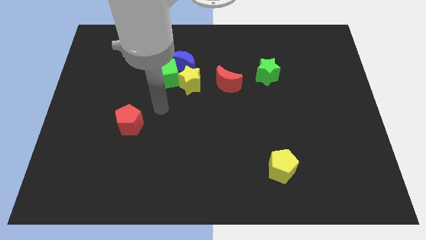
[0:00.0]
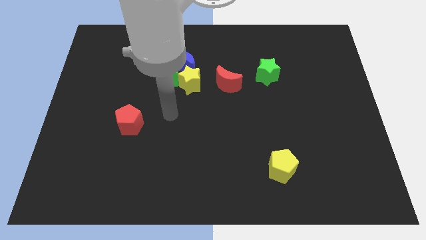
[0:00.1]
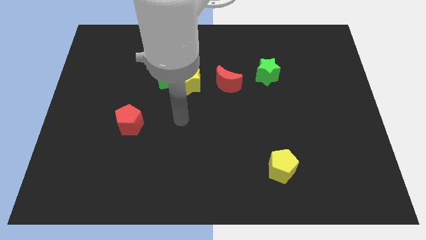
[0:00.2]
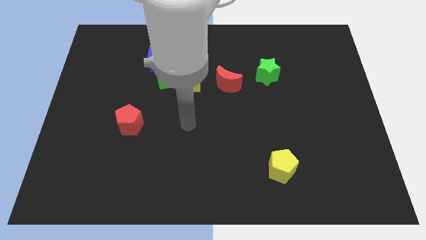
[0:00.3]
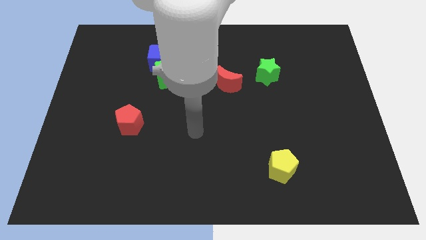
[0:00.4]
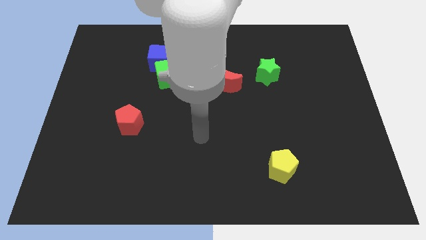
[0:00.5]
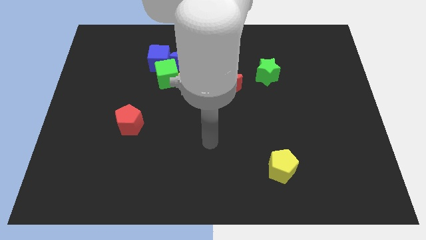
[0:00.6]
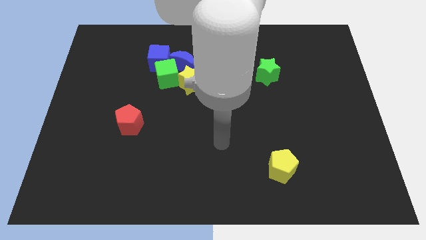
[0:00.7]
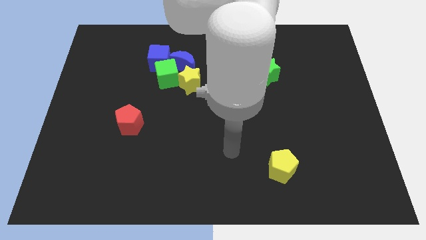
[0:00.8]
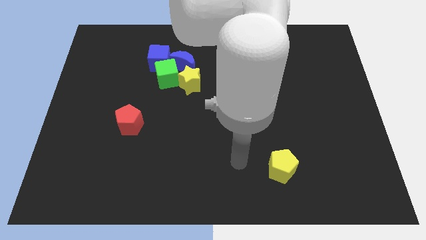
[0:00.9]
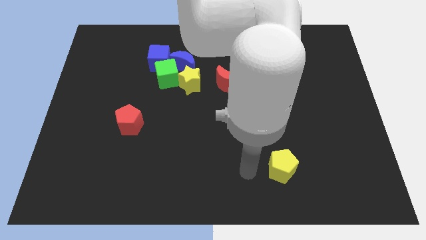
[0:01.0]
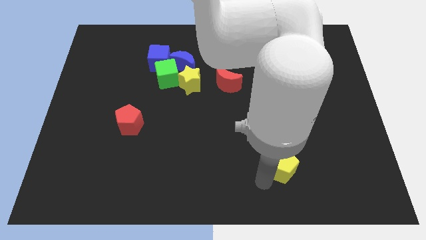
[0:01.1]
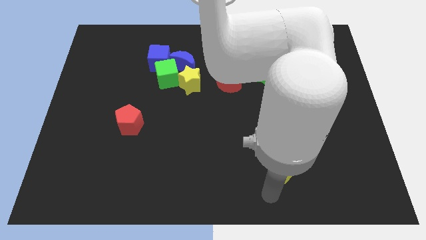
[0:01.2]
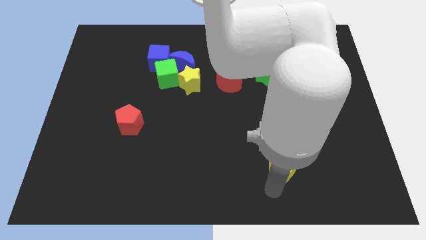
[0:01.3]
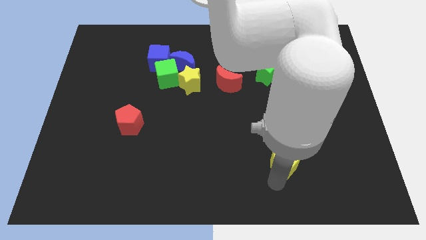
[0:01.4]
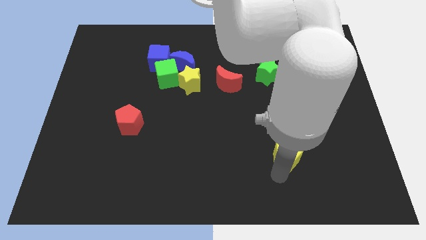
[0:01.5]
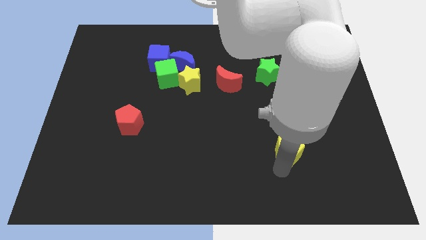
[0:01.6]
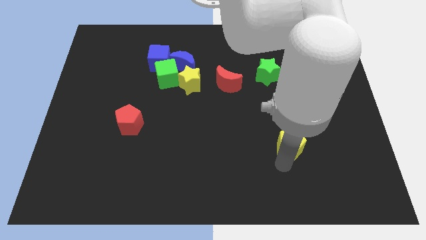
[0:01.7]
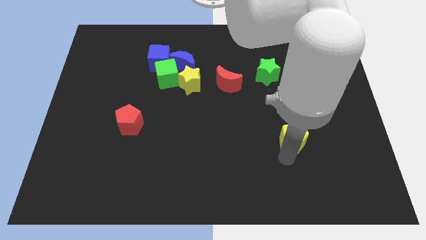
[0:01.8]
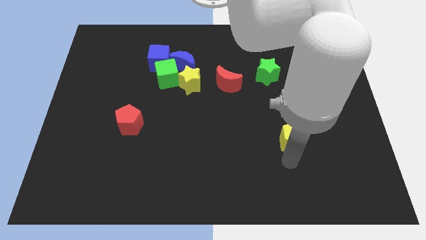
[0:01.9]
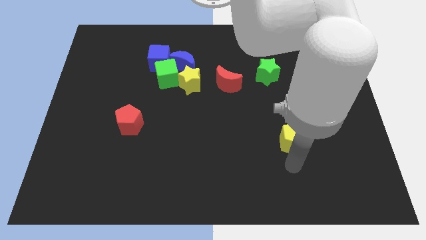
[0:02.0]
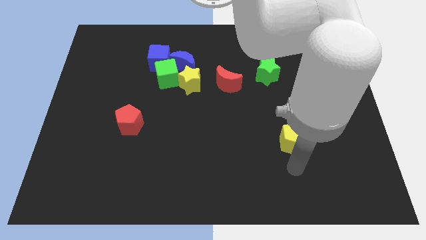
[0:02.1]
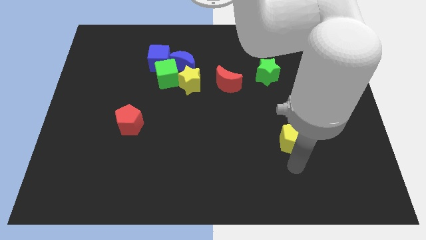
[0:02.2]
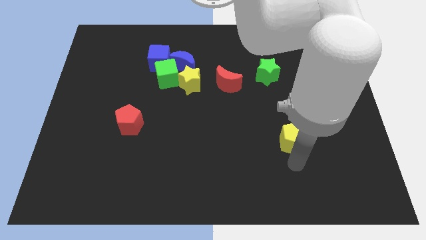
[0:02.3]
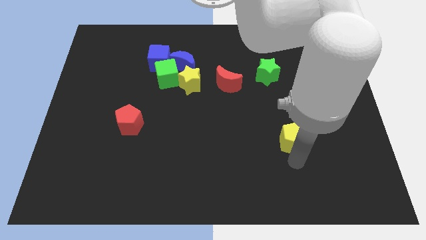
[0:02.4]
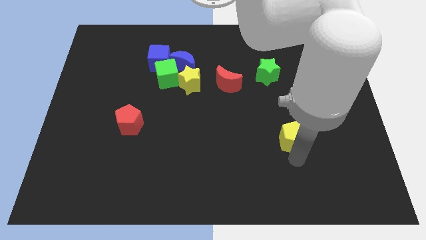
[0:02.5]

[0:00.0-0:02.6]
move the yellow pentagon upwards slightly

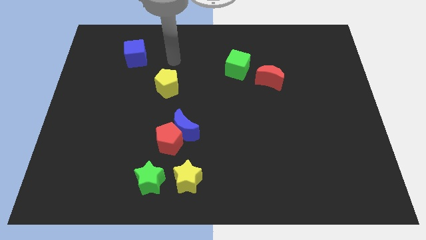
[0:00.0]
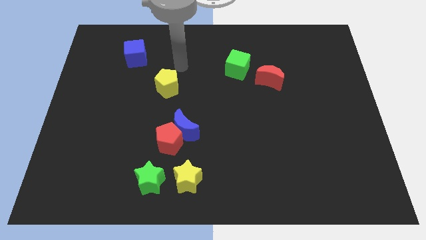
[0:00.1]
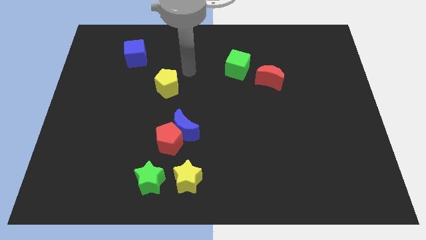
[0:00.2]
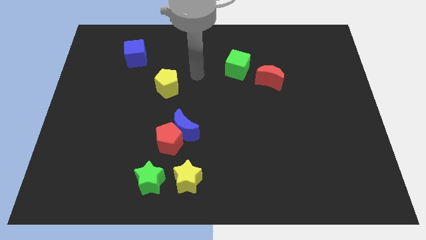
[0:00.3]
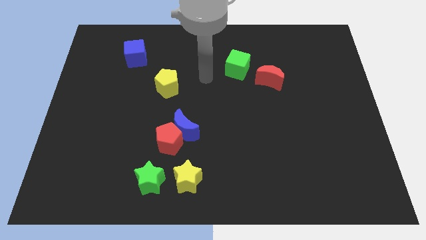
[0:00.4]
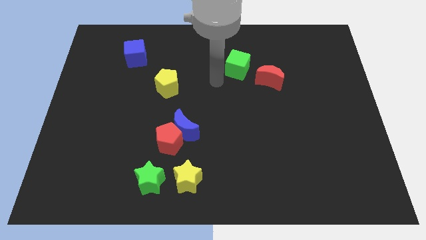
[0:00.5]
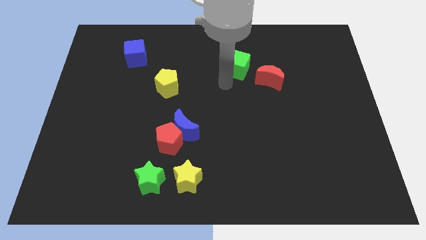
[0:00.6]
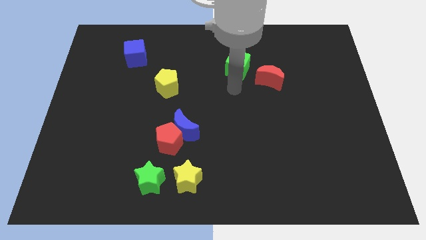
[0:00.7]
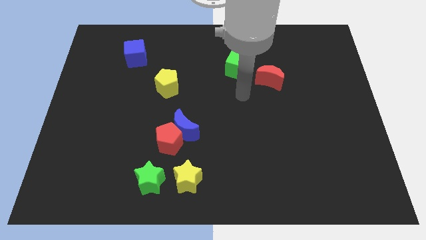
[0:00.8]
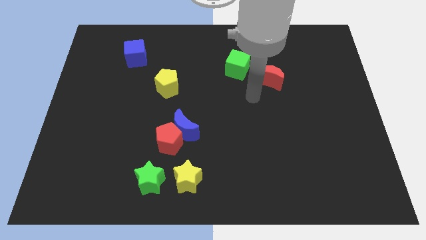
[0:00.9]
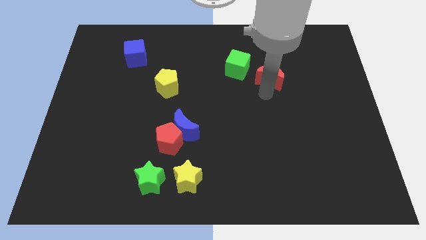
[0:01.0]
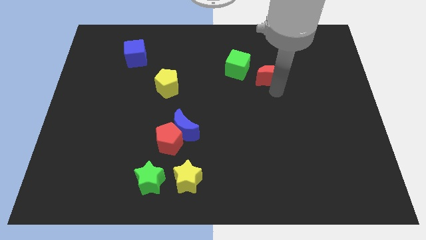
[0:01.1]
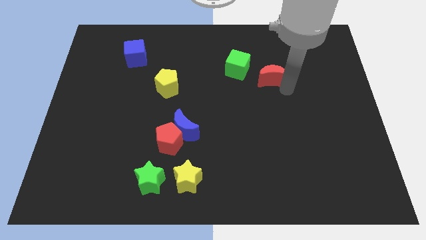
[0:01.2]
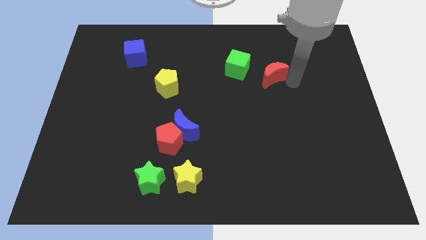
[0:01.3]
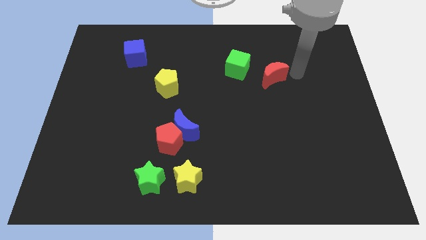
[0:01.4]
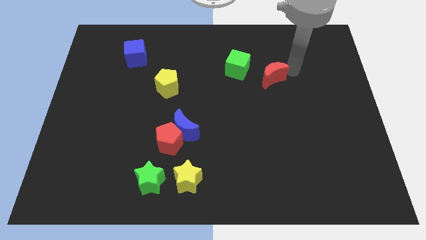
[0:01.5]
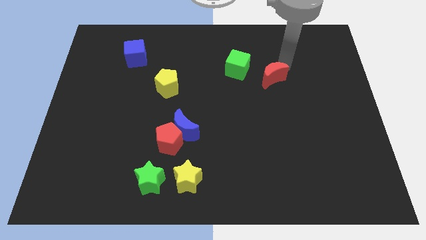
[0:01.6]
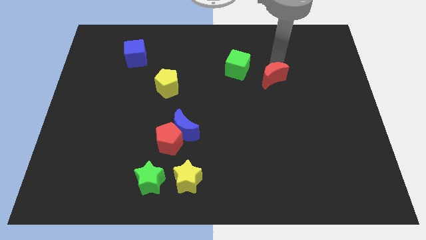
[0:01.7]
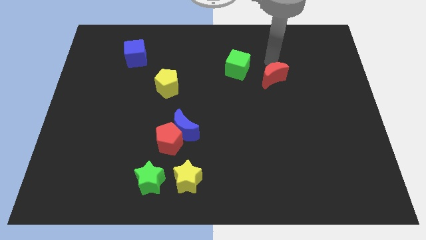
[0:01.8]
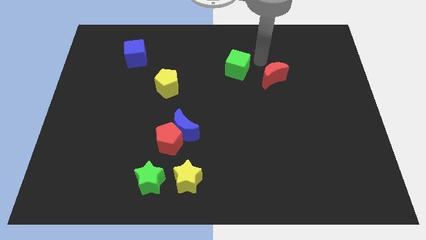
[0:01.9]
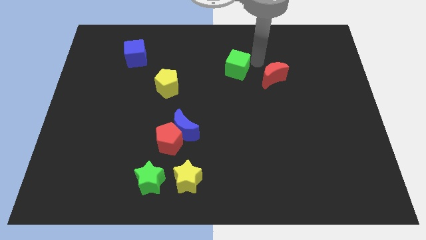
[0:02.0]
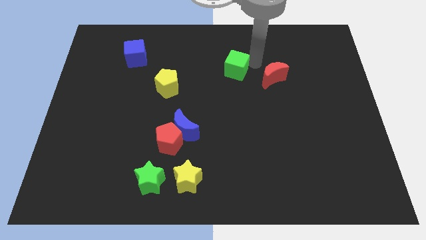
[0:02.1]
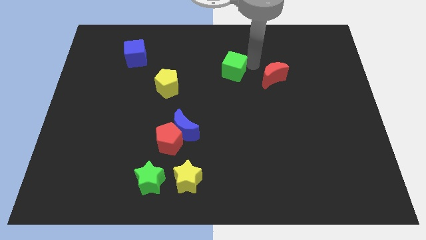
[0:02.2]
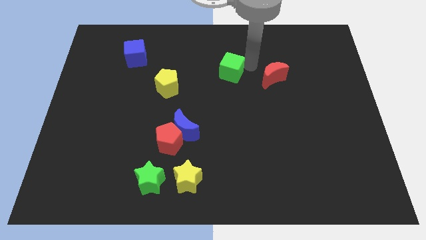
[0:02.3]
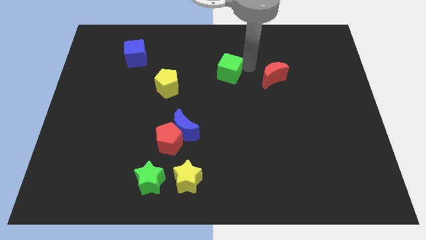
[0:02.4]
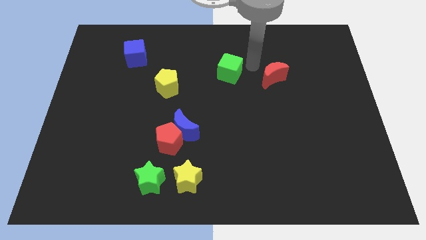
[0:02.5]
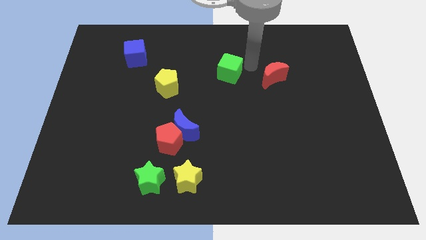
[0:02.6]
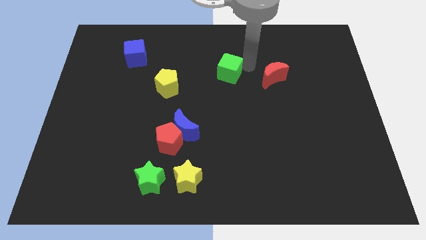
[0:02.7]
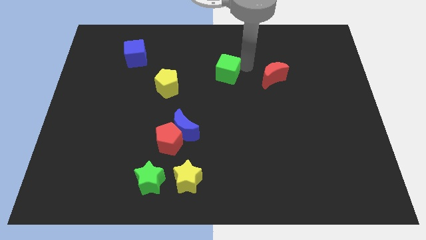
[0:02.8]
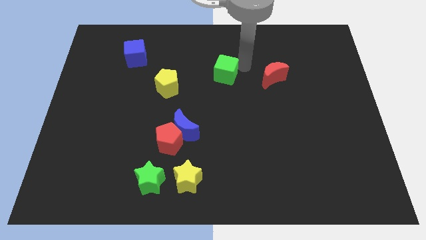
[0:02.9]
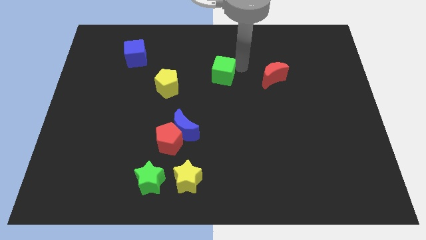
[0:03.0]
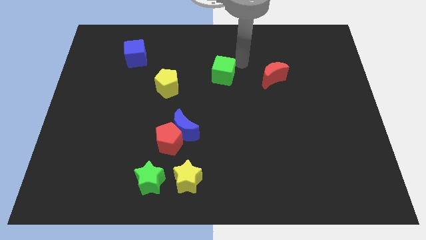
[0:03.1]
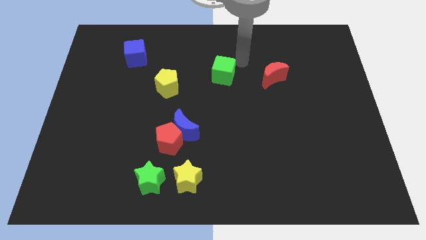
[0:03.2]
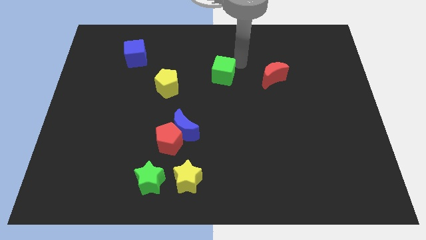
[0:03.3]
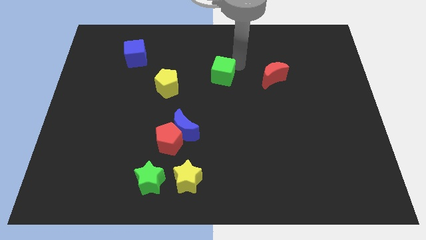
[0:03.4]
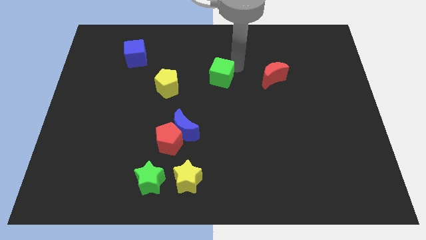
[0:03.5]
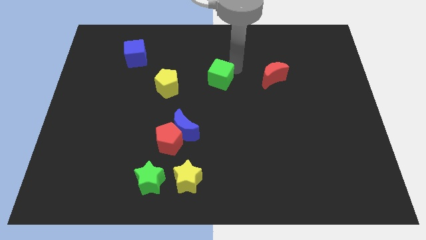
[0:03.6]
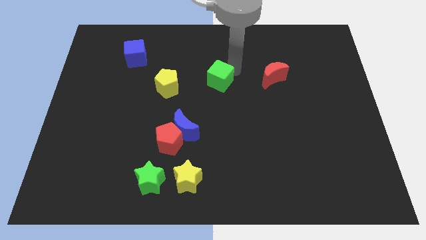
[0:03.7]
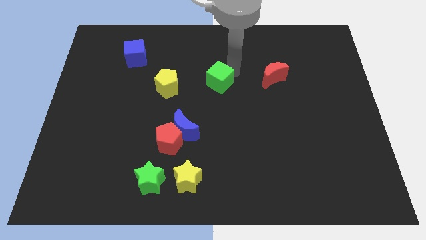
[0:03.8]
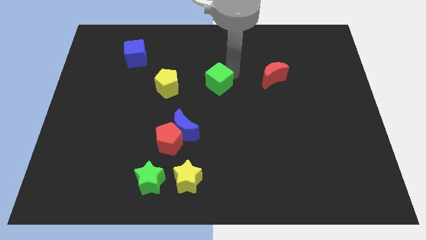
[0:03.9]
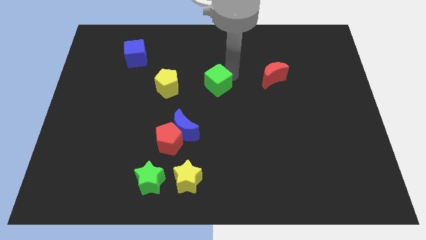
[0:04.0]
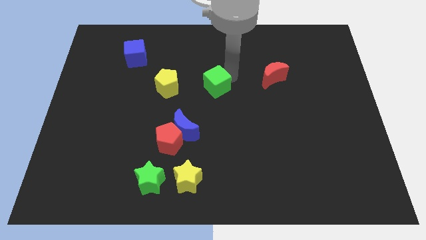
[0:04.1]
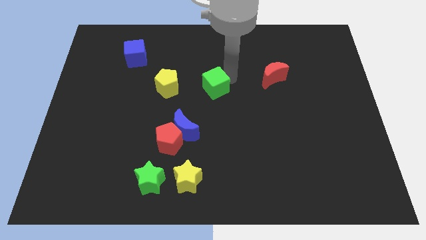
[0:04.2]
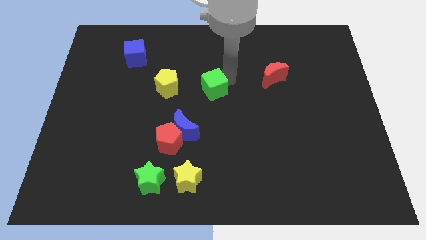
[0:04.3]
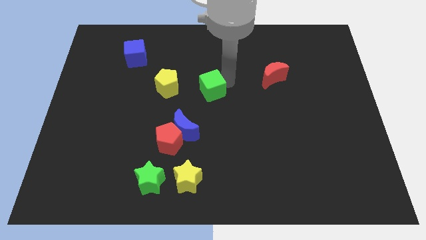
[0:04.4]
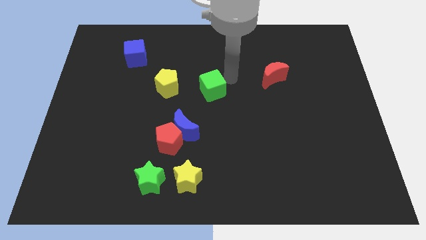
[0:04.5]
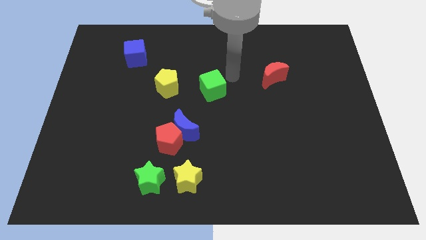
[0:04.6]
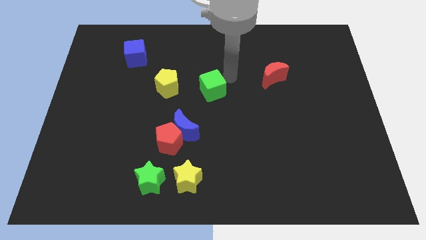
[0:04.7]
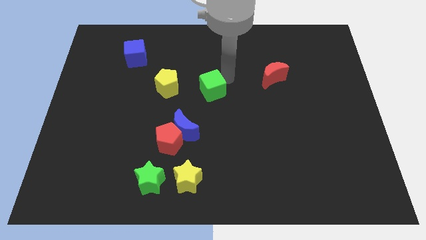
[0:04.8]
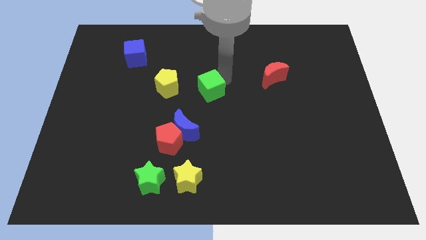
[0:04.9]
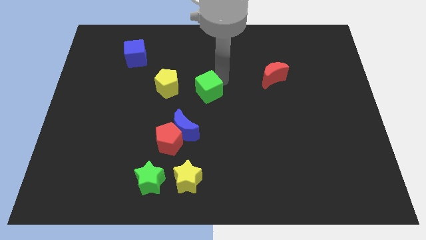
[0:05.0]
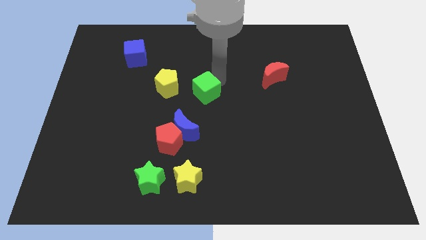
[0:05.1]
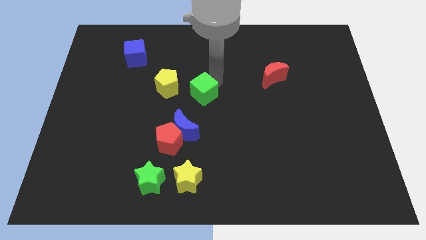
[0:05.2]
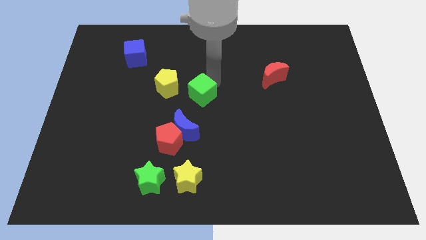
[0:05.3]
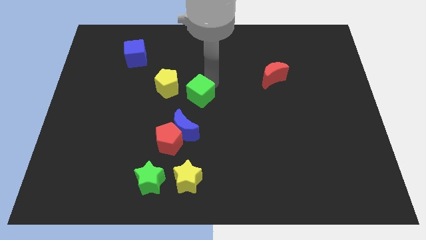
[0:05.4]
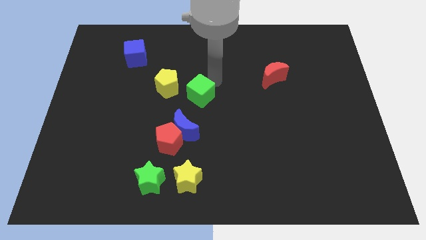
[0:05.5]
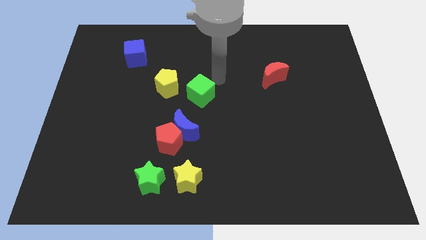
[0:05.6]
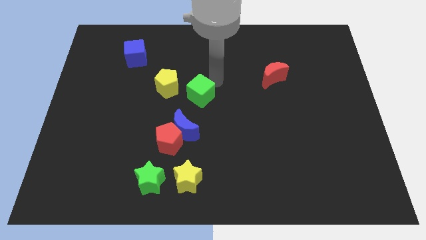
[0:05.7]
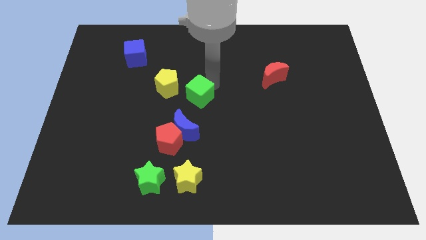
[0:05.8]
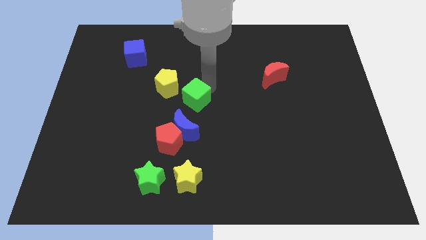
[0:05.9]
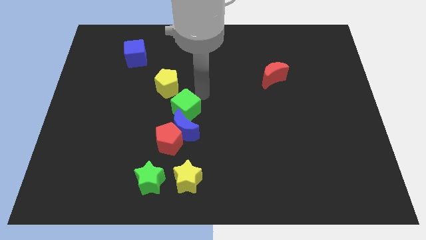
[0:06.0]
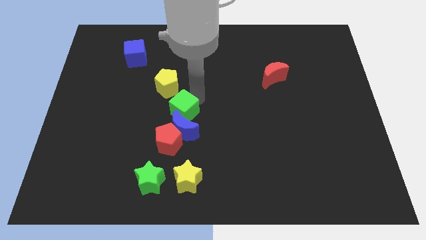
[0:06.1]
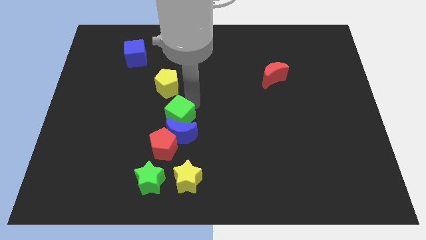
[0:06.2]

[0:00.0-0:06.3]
push the green cube down and to the left diagonally
